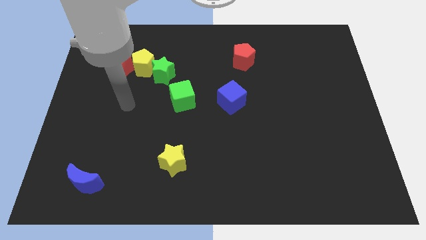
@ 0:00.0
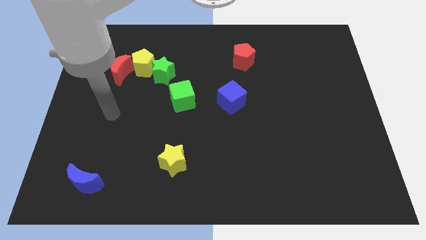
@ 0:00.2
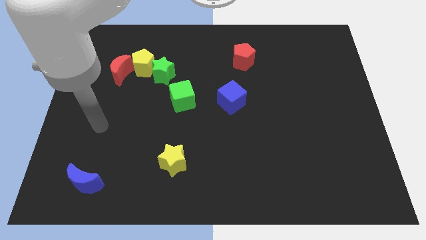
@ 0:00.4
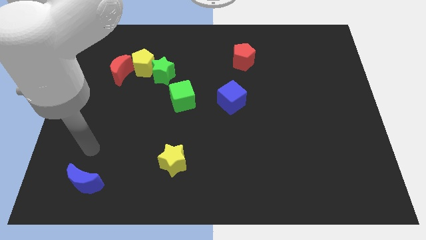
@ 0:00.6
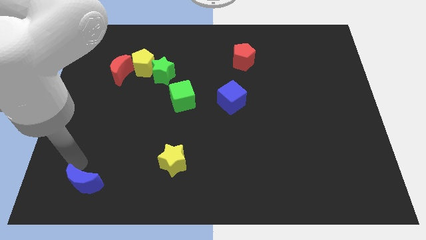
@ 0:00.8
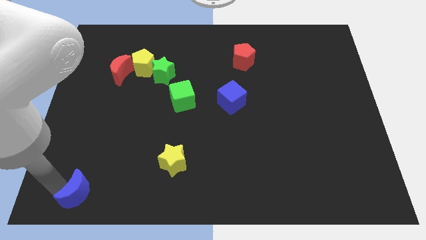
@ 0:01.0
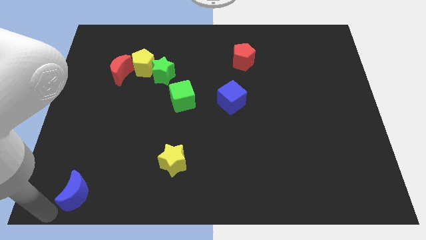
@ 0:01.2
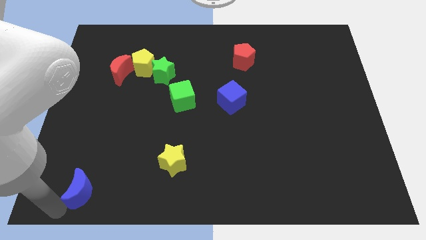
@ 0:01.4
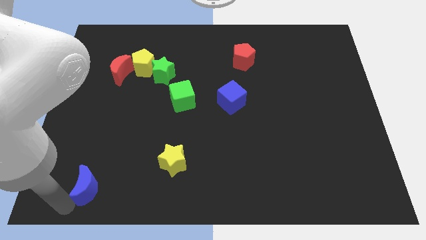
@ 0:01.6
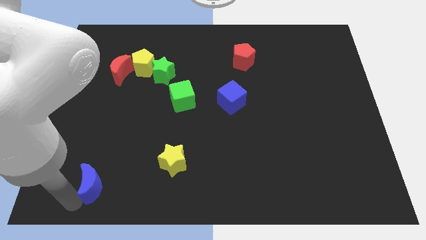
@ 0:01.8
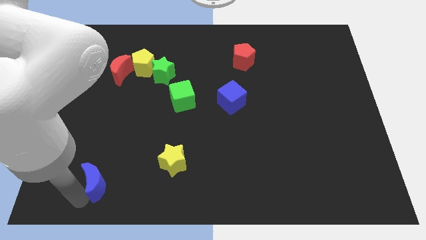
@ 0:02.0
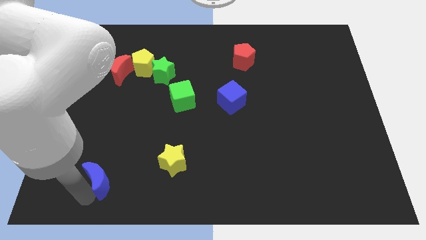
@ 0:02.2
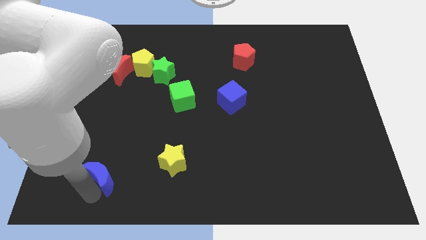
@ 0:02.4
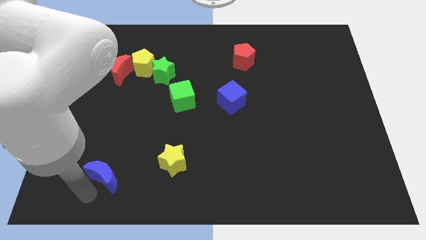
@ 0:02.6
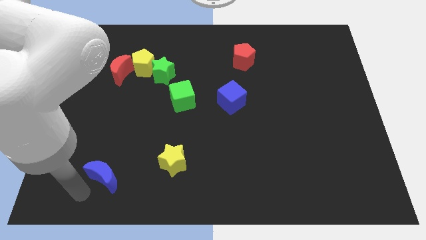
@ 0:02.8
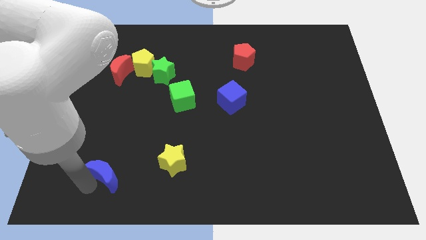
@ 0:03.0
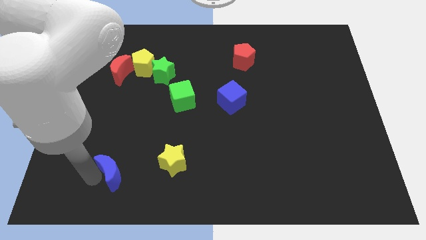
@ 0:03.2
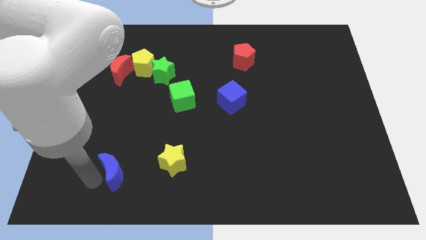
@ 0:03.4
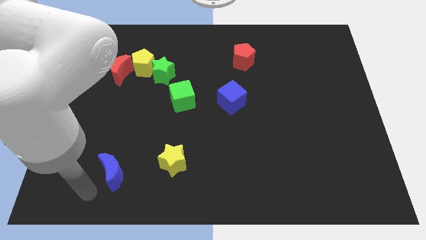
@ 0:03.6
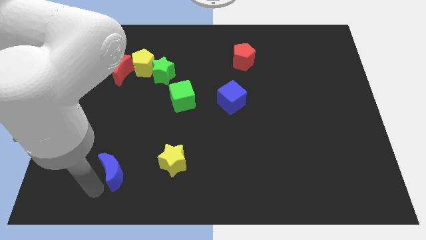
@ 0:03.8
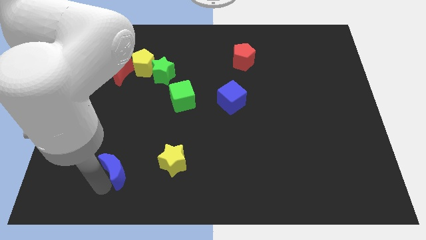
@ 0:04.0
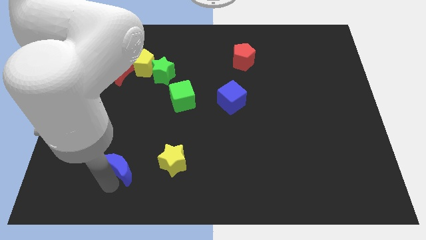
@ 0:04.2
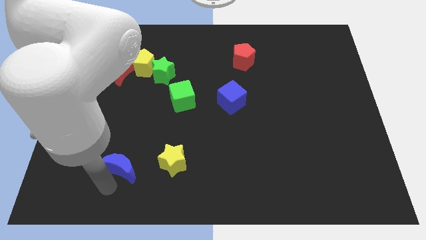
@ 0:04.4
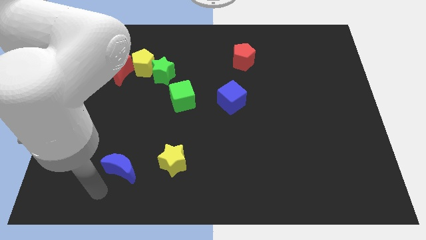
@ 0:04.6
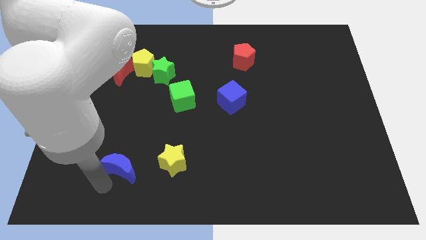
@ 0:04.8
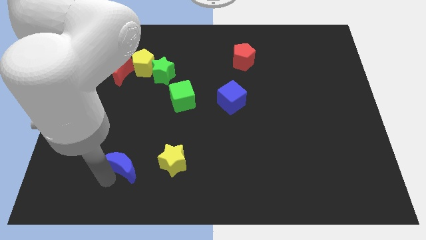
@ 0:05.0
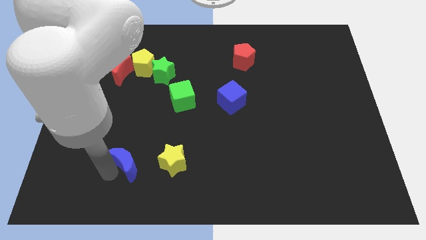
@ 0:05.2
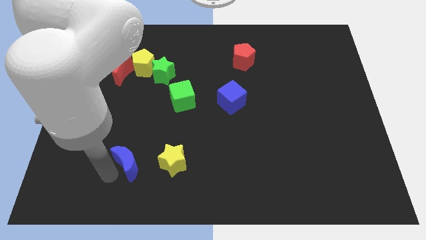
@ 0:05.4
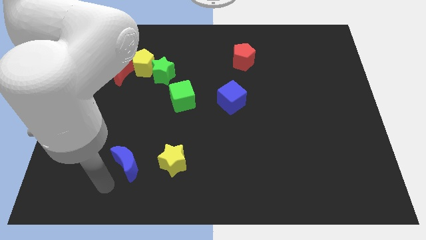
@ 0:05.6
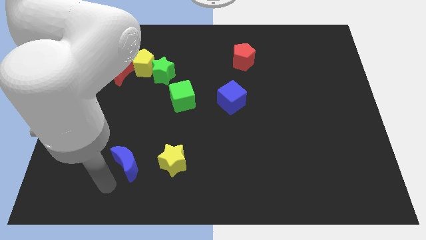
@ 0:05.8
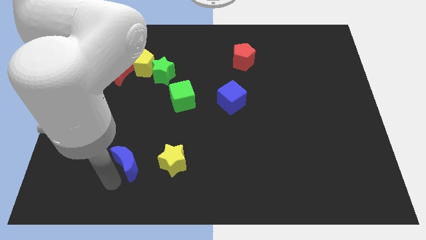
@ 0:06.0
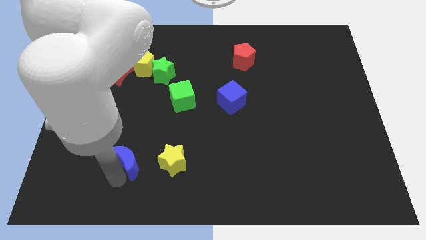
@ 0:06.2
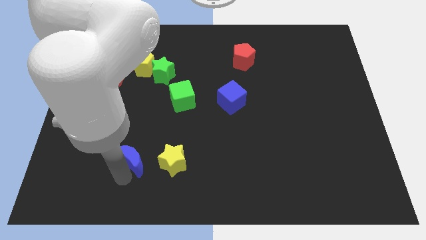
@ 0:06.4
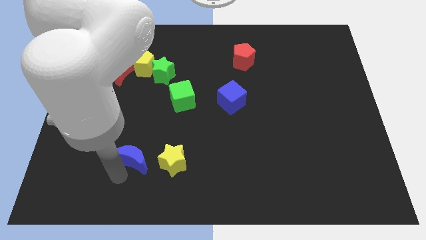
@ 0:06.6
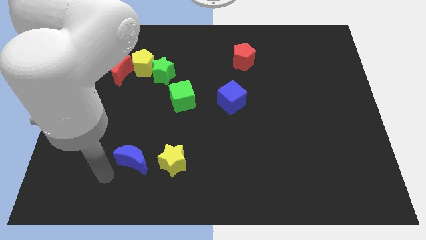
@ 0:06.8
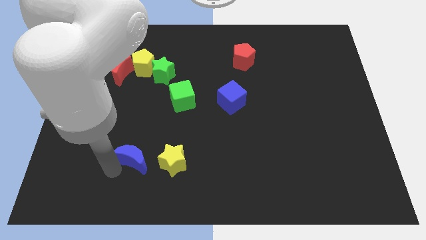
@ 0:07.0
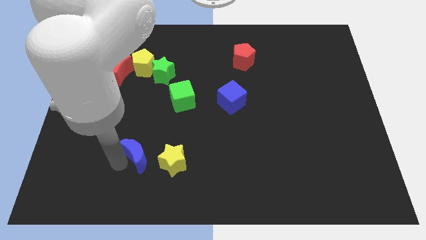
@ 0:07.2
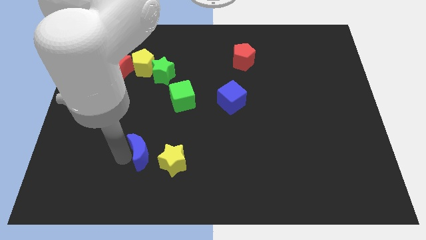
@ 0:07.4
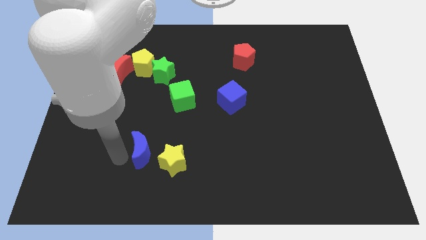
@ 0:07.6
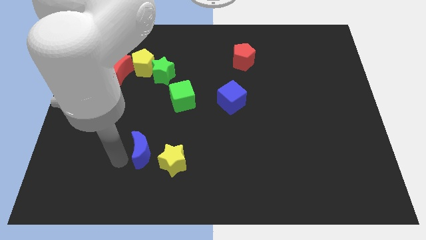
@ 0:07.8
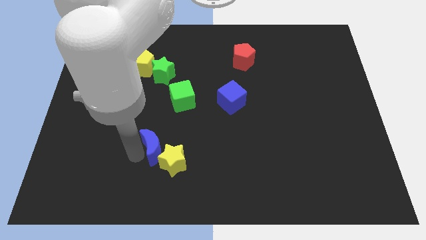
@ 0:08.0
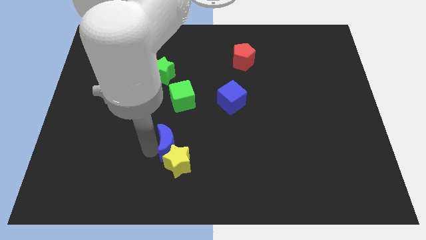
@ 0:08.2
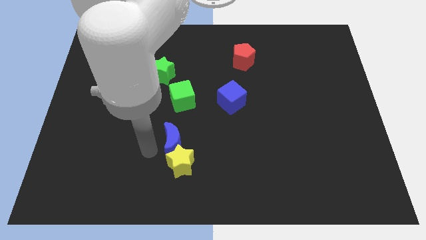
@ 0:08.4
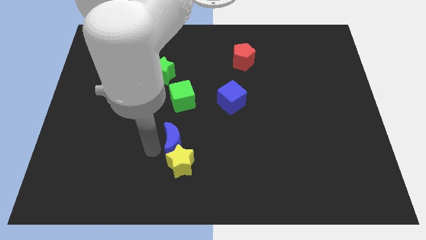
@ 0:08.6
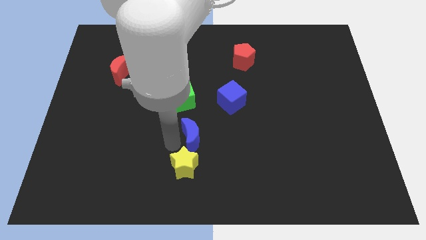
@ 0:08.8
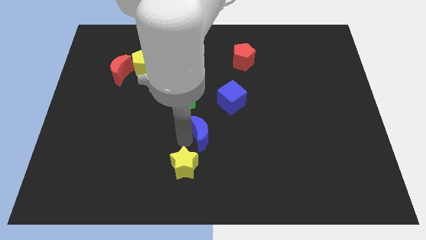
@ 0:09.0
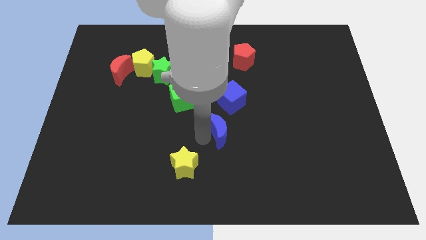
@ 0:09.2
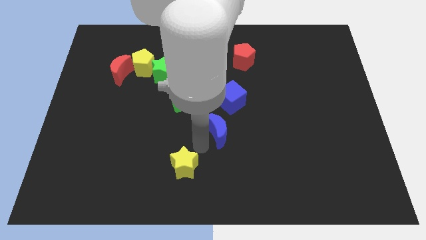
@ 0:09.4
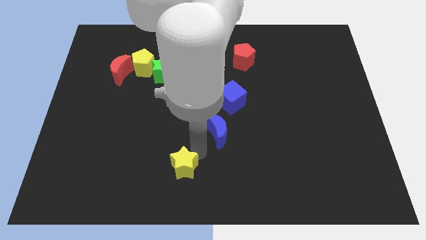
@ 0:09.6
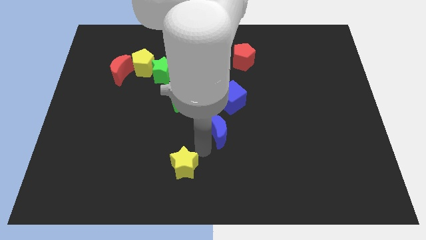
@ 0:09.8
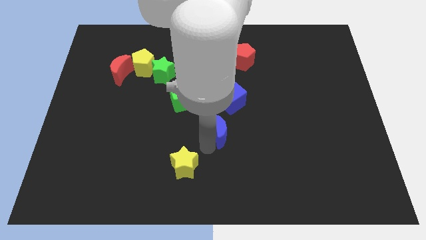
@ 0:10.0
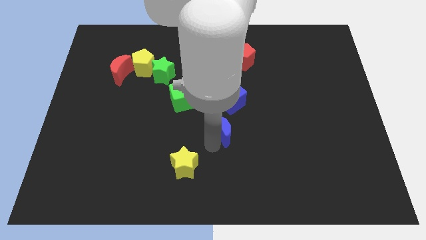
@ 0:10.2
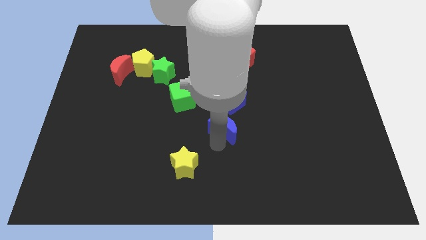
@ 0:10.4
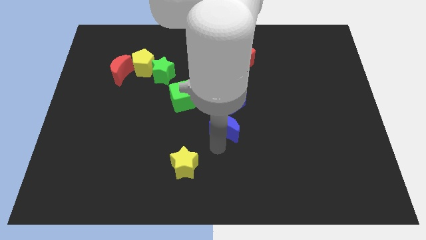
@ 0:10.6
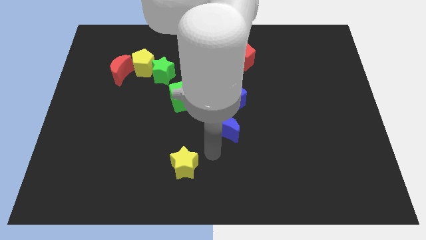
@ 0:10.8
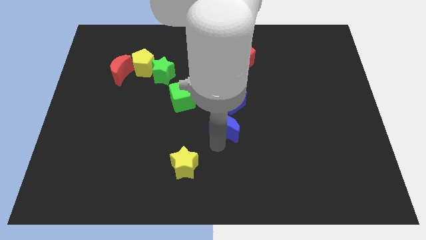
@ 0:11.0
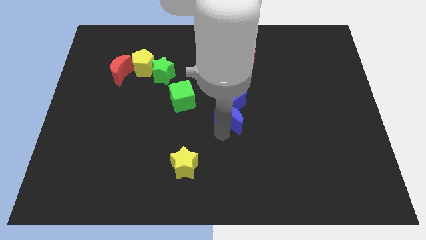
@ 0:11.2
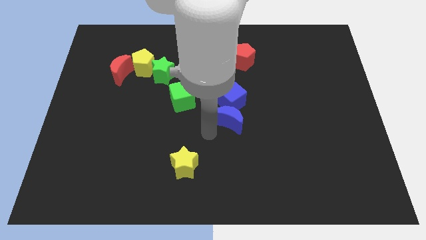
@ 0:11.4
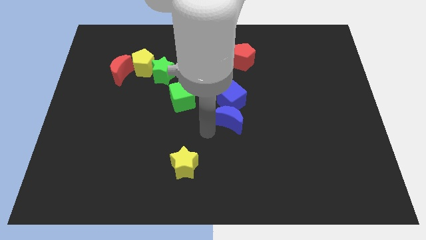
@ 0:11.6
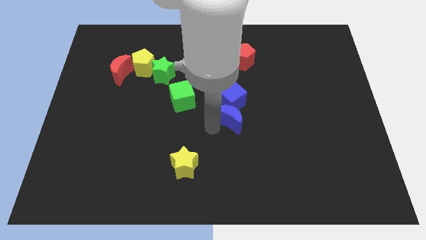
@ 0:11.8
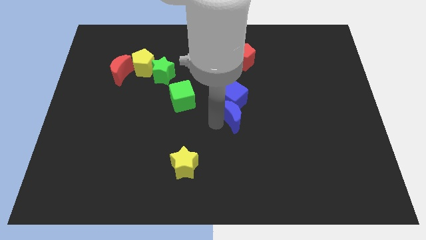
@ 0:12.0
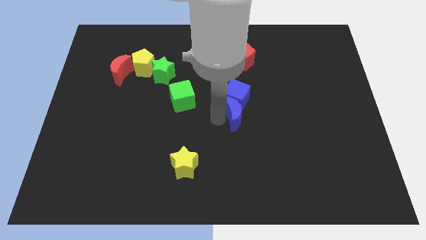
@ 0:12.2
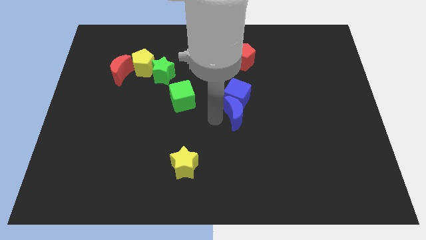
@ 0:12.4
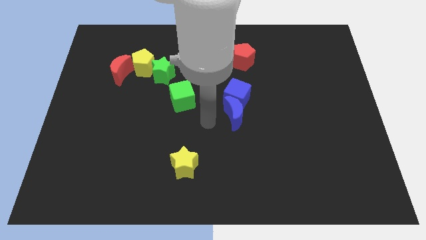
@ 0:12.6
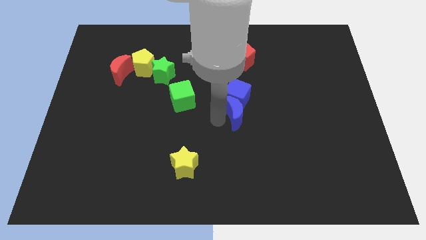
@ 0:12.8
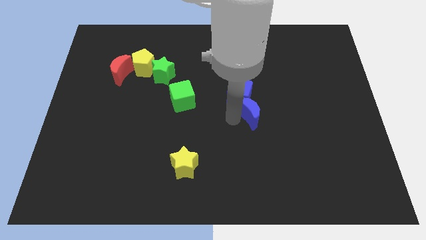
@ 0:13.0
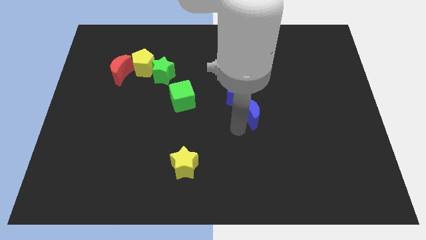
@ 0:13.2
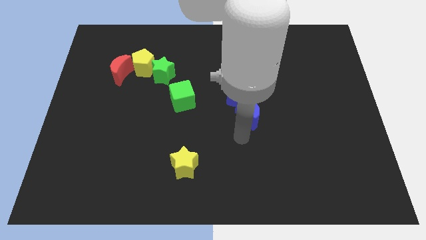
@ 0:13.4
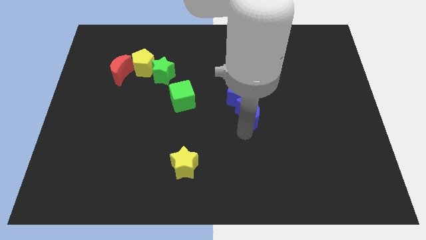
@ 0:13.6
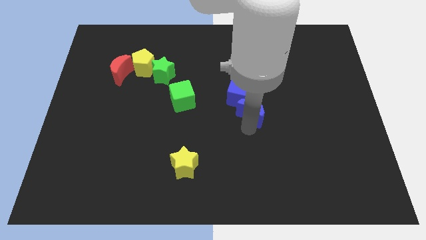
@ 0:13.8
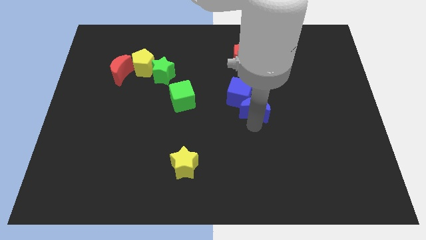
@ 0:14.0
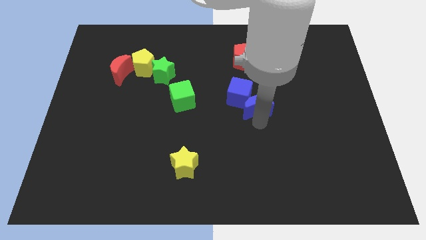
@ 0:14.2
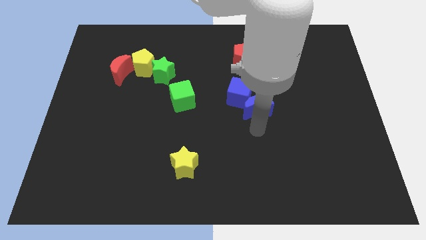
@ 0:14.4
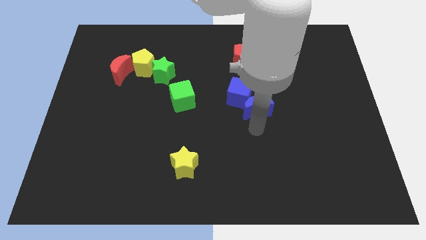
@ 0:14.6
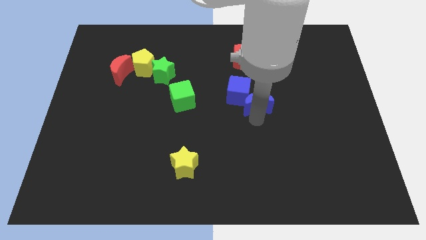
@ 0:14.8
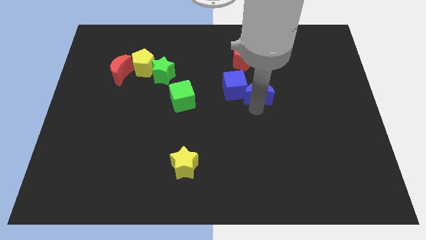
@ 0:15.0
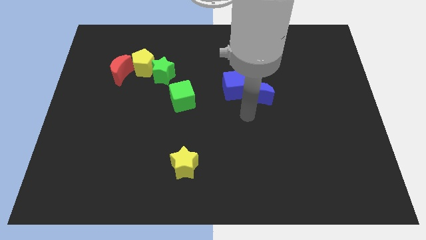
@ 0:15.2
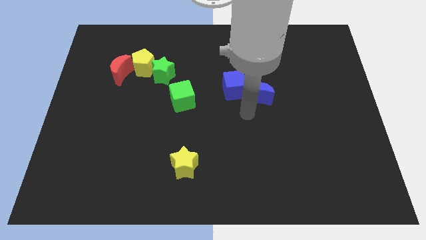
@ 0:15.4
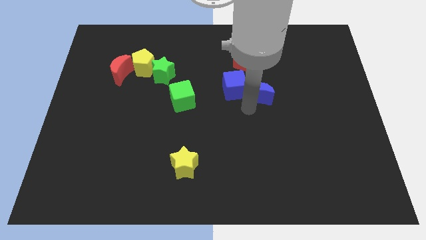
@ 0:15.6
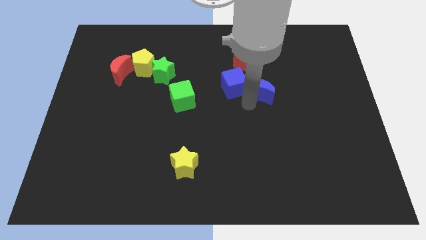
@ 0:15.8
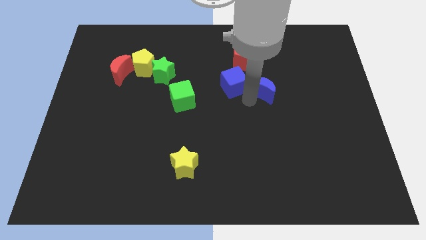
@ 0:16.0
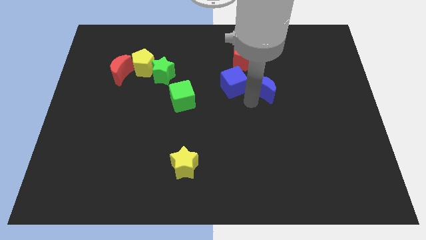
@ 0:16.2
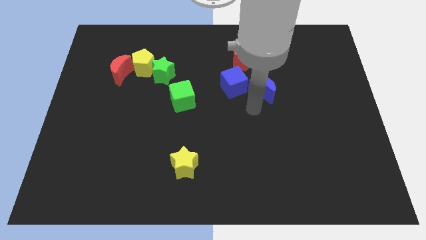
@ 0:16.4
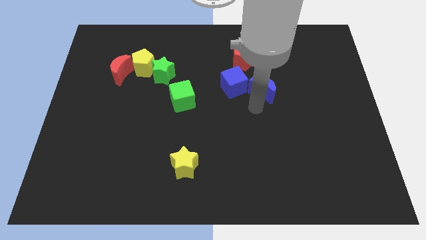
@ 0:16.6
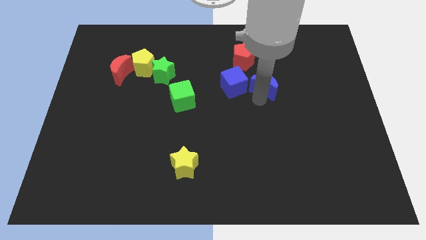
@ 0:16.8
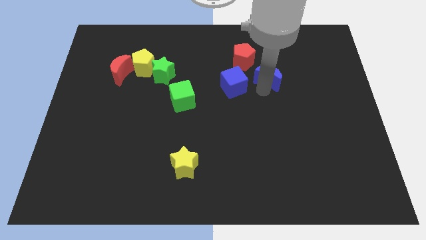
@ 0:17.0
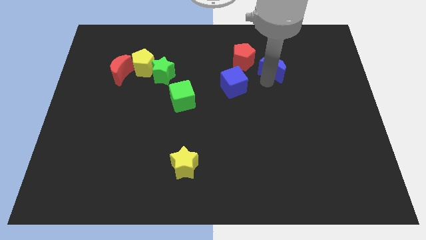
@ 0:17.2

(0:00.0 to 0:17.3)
slide the blue moon to the right of the red pentagon
